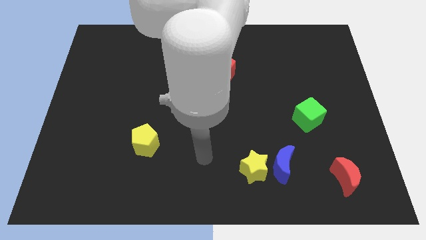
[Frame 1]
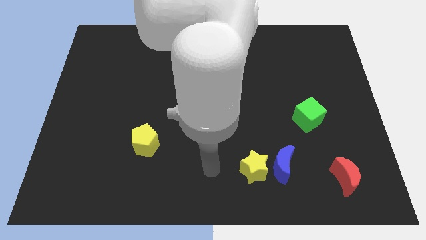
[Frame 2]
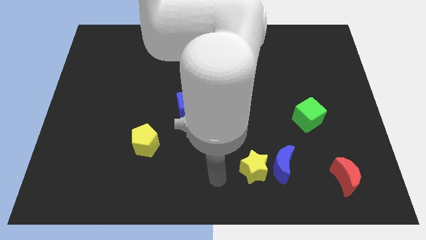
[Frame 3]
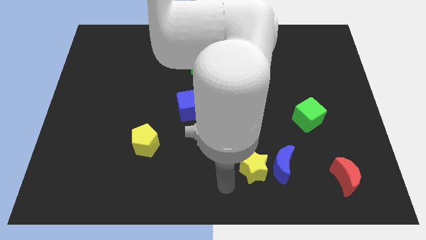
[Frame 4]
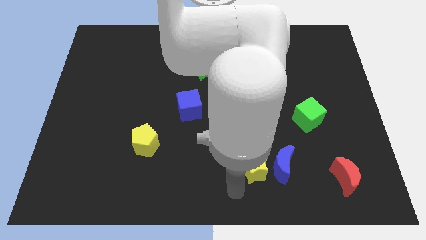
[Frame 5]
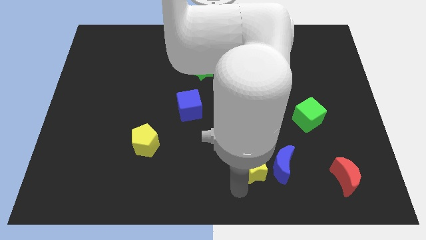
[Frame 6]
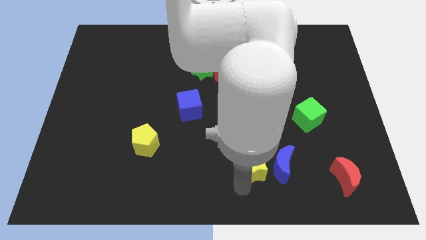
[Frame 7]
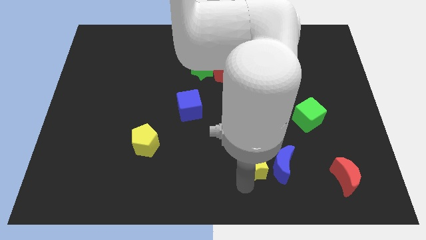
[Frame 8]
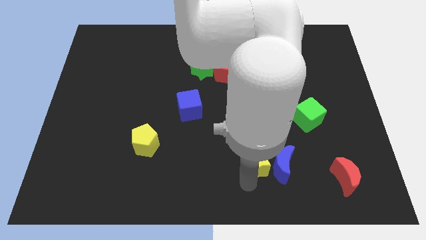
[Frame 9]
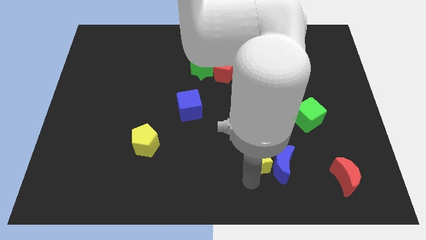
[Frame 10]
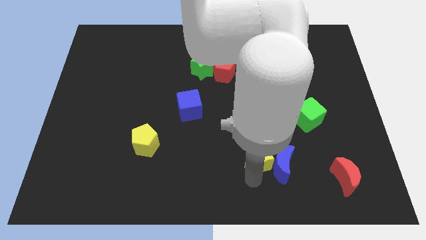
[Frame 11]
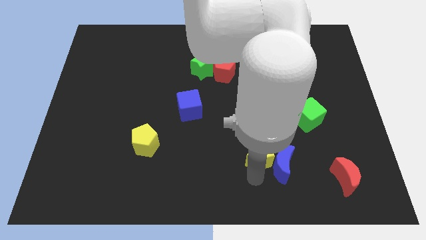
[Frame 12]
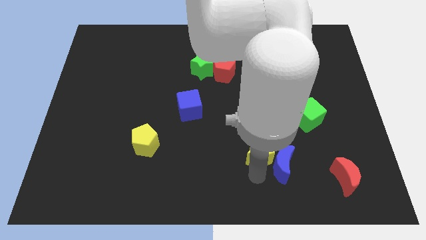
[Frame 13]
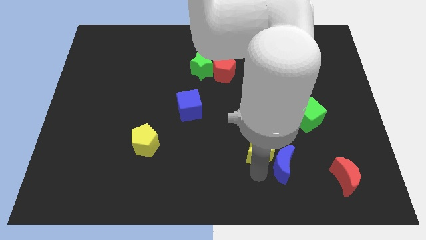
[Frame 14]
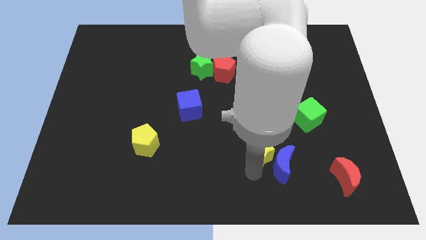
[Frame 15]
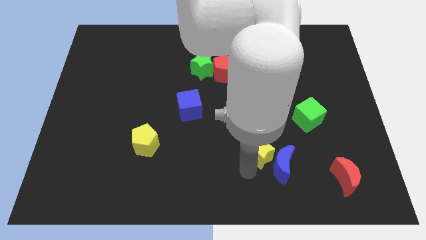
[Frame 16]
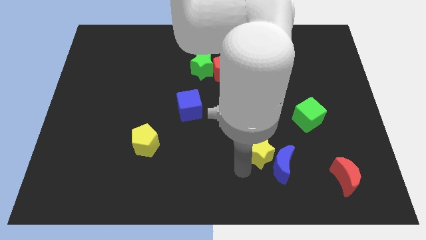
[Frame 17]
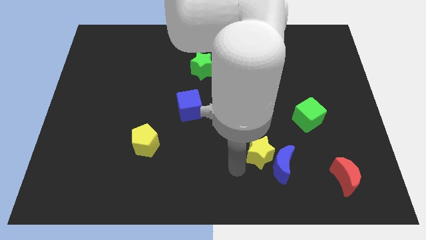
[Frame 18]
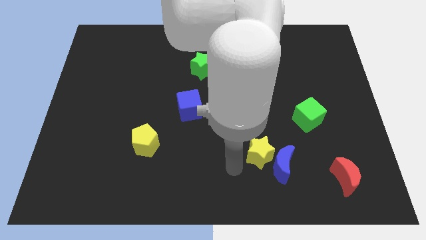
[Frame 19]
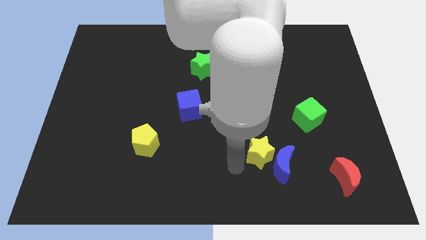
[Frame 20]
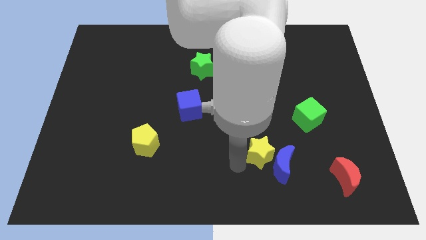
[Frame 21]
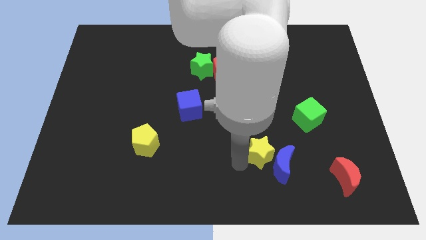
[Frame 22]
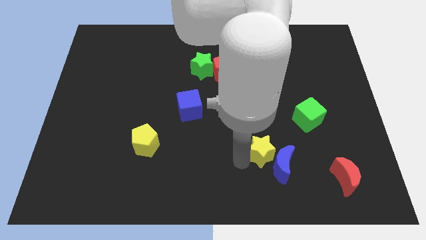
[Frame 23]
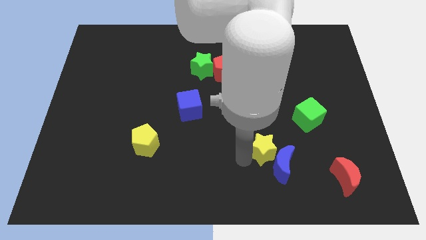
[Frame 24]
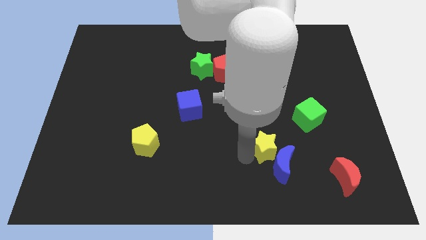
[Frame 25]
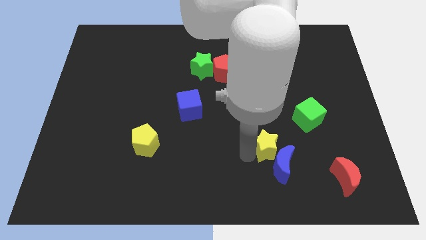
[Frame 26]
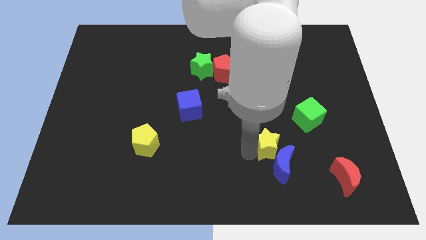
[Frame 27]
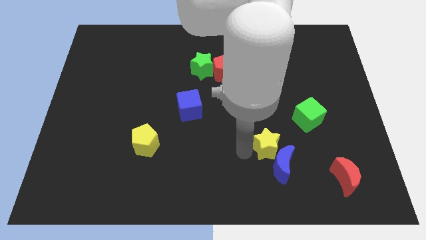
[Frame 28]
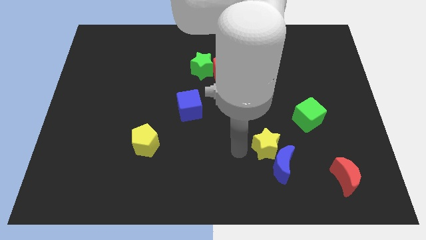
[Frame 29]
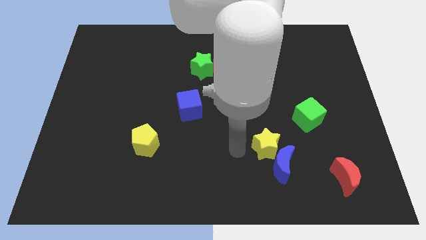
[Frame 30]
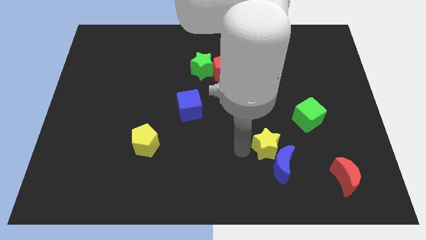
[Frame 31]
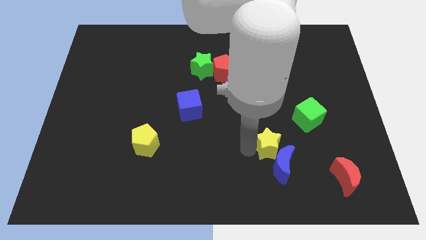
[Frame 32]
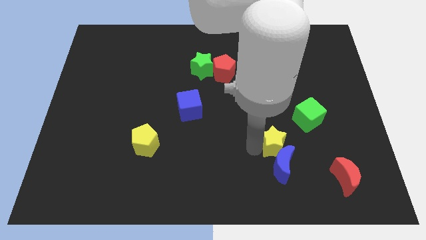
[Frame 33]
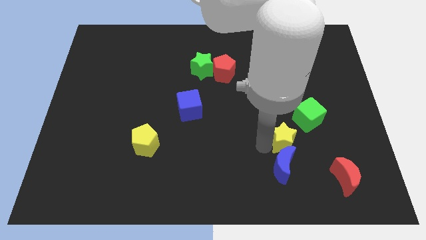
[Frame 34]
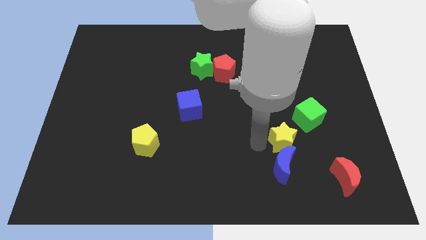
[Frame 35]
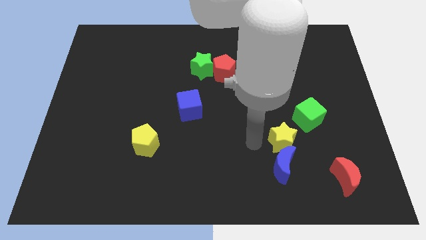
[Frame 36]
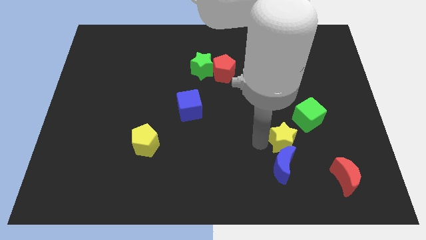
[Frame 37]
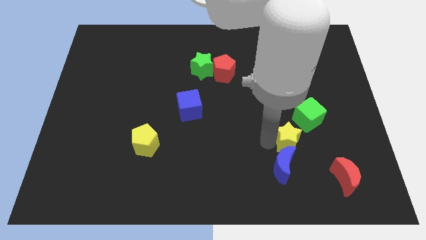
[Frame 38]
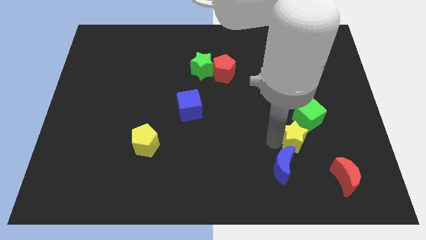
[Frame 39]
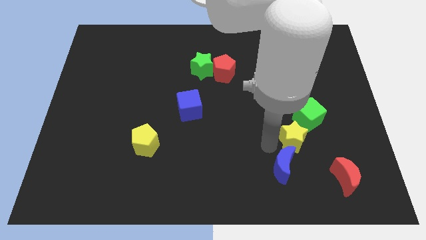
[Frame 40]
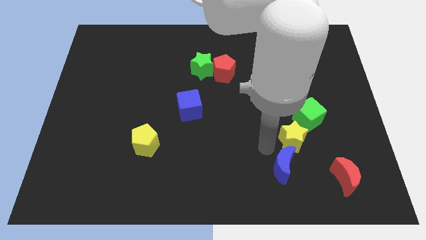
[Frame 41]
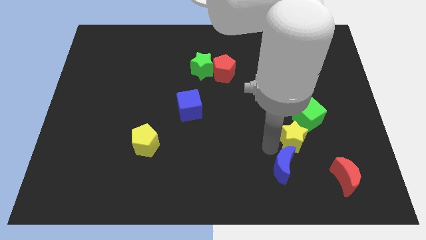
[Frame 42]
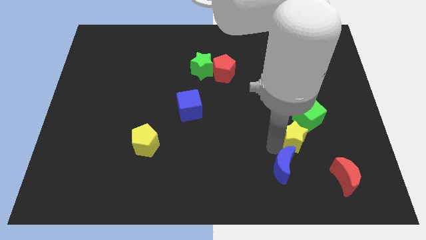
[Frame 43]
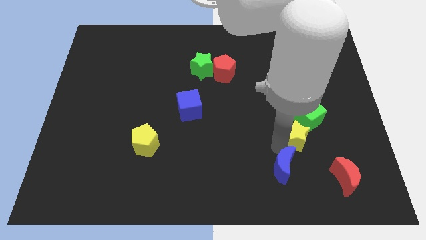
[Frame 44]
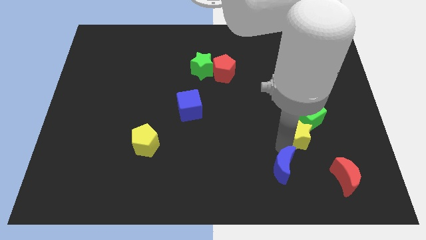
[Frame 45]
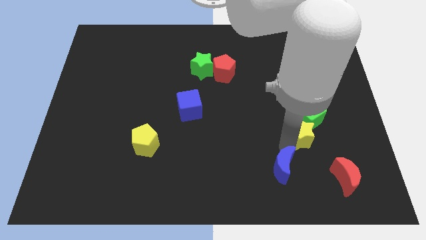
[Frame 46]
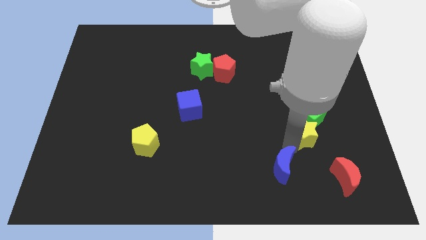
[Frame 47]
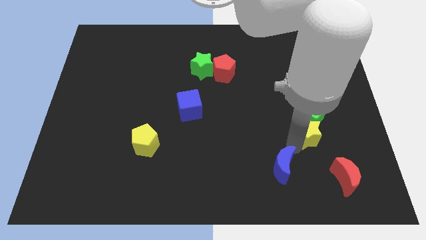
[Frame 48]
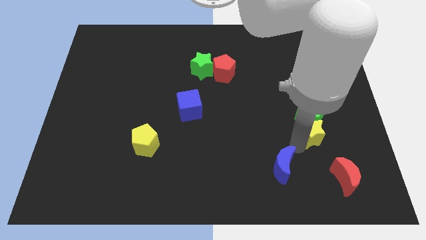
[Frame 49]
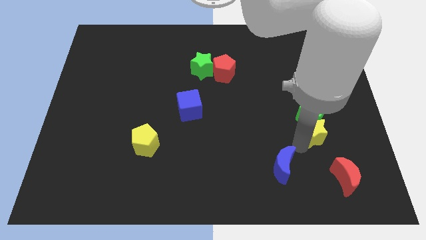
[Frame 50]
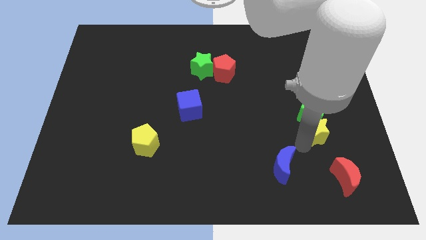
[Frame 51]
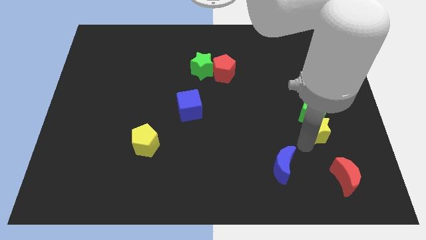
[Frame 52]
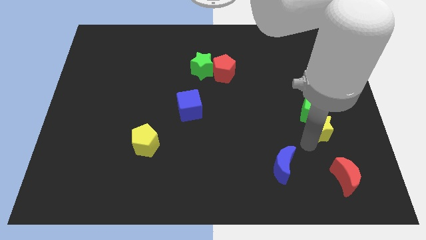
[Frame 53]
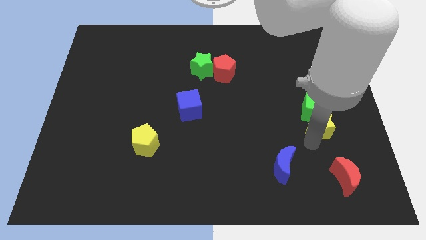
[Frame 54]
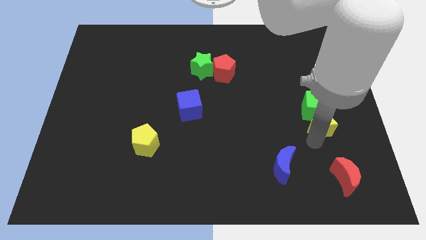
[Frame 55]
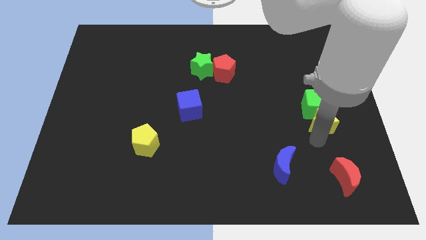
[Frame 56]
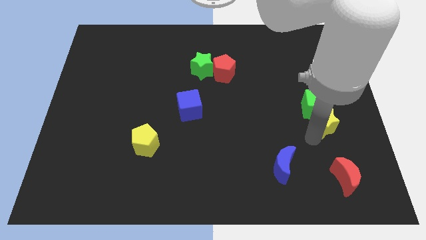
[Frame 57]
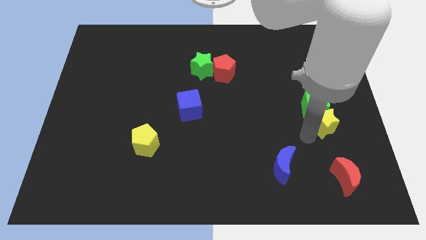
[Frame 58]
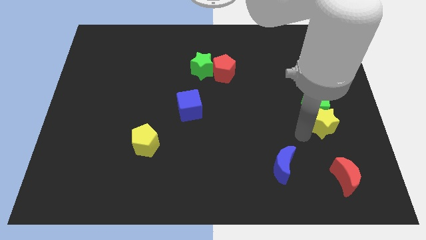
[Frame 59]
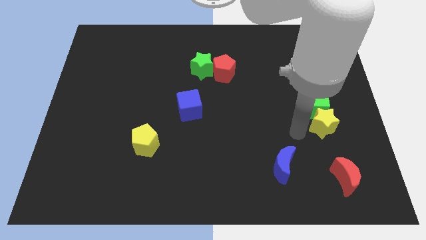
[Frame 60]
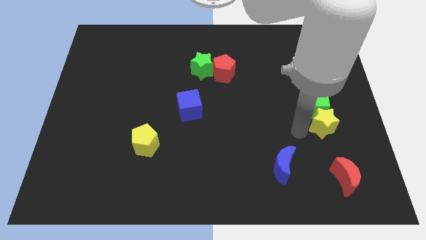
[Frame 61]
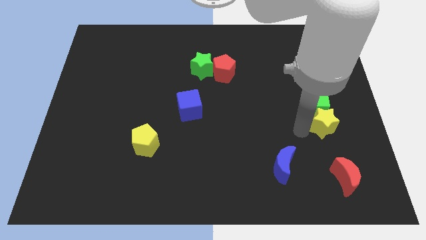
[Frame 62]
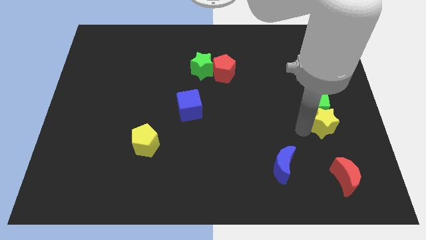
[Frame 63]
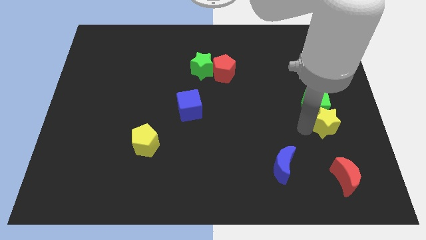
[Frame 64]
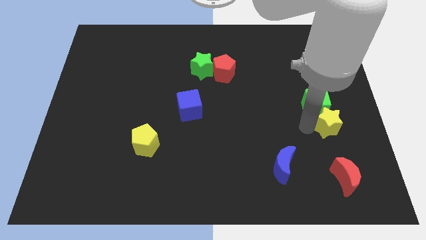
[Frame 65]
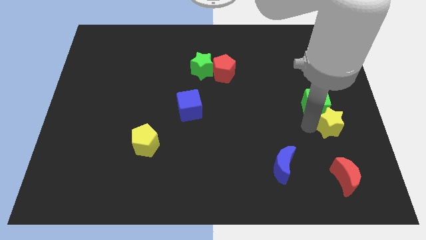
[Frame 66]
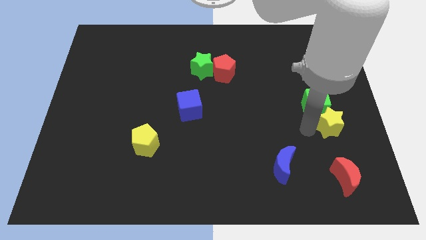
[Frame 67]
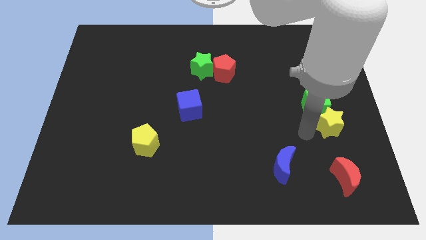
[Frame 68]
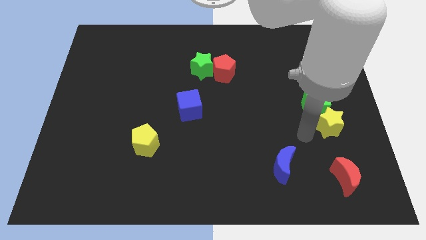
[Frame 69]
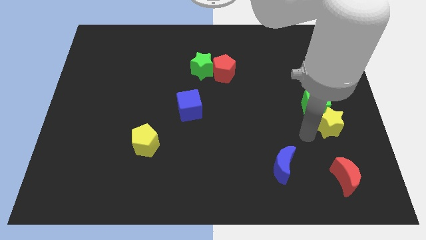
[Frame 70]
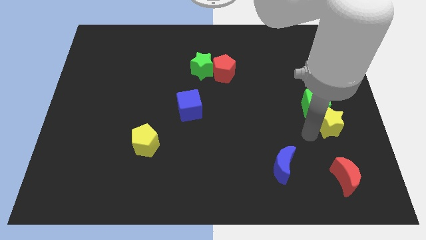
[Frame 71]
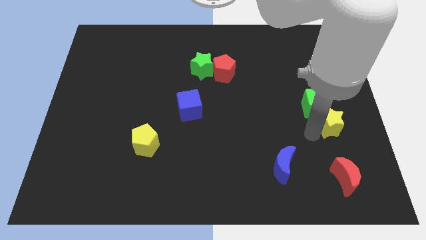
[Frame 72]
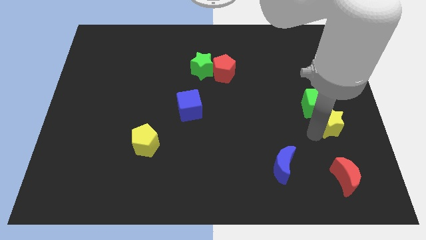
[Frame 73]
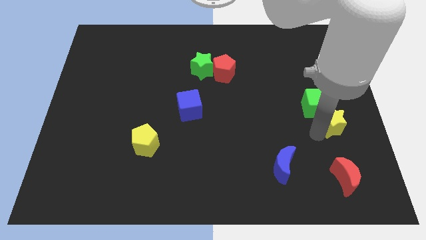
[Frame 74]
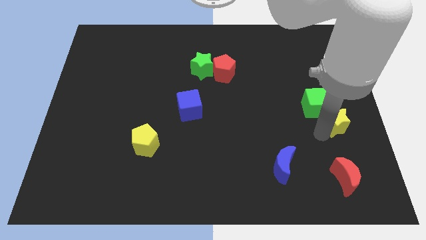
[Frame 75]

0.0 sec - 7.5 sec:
move the yellow star to the right side
